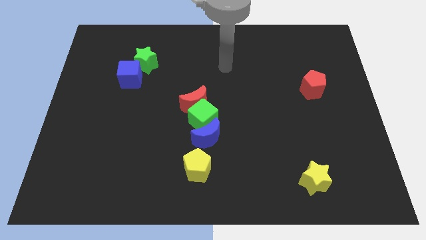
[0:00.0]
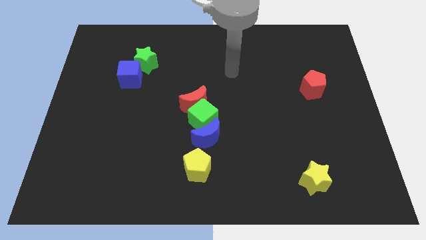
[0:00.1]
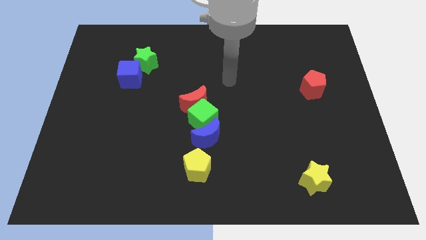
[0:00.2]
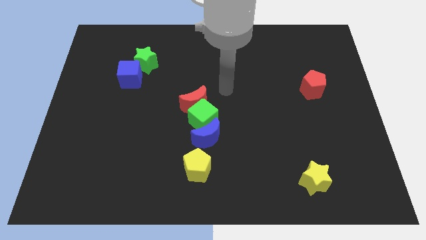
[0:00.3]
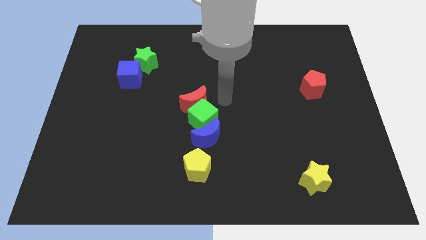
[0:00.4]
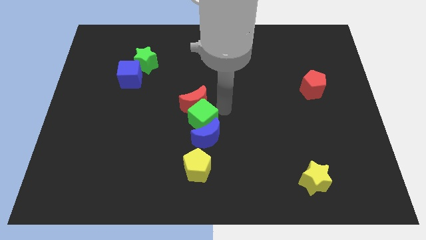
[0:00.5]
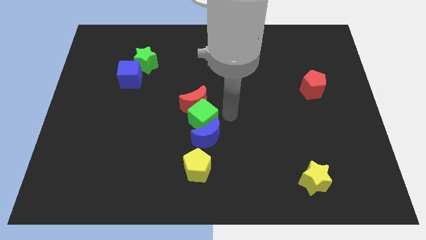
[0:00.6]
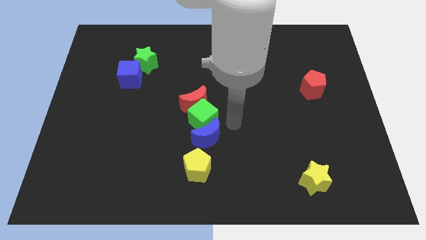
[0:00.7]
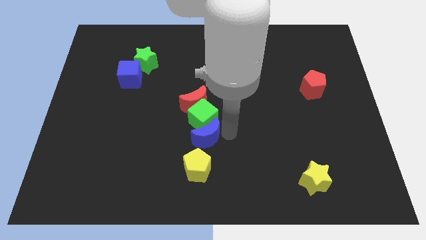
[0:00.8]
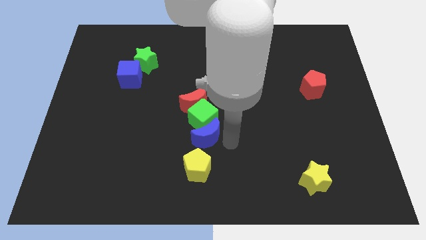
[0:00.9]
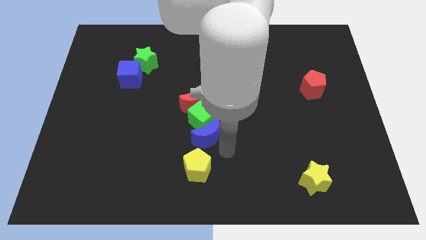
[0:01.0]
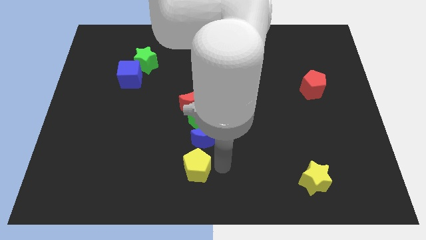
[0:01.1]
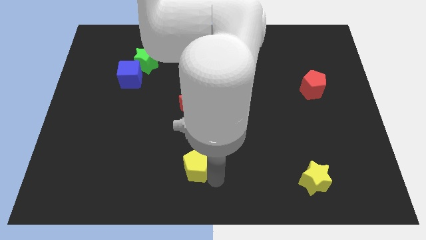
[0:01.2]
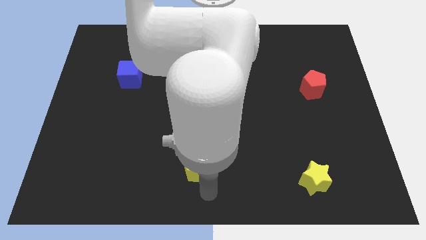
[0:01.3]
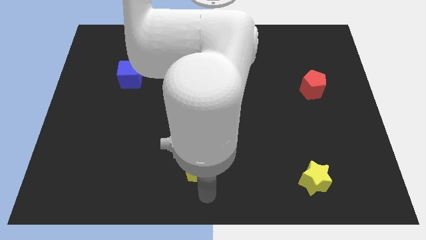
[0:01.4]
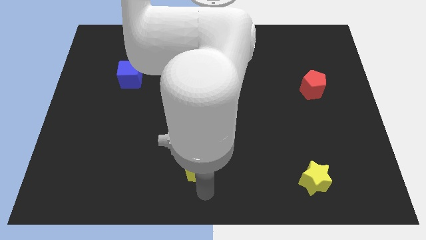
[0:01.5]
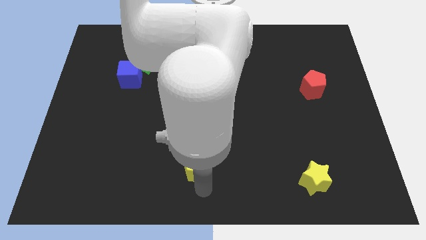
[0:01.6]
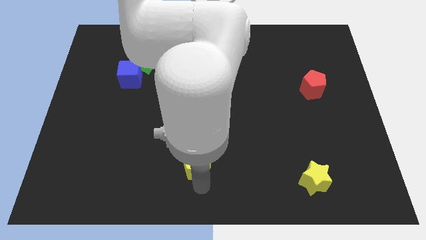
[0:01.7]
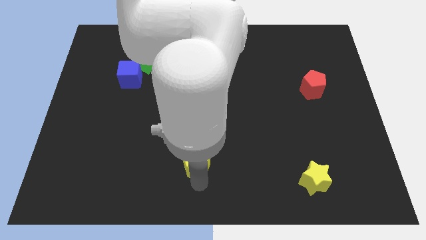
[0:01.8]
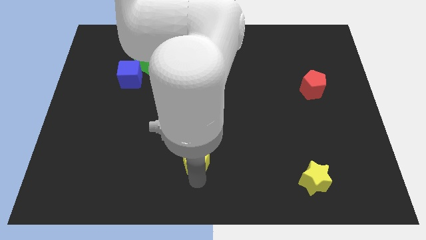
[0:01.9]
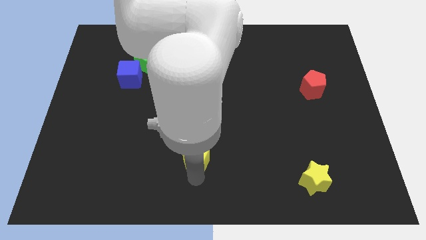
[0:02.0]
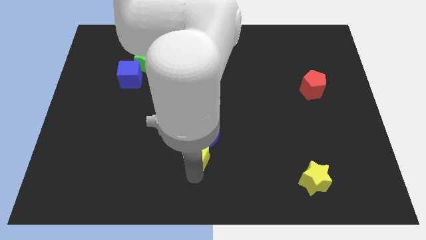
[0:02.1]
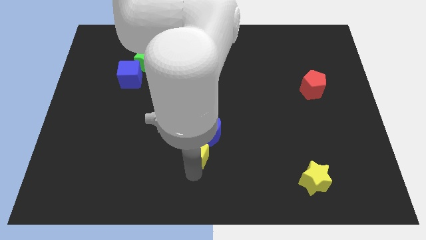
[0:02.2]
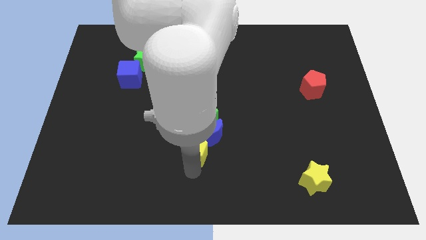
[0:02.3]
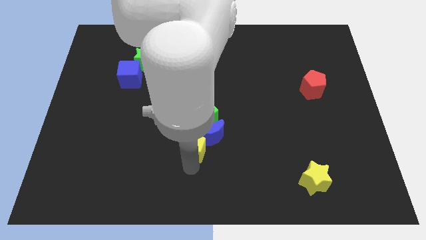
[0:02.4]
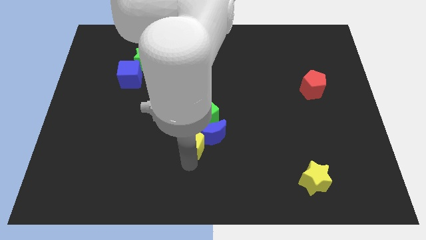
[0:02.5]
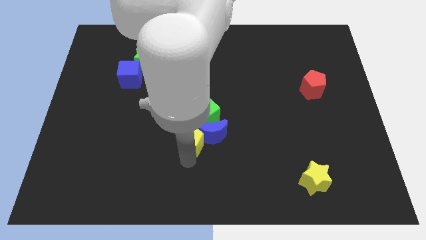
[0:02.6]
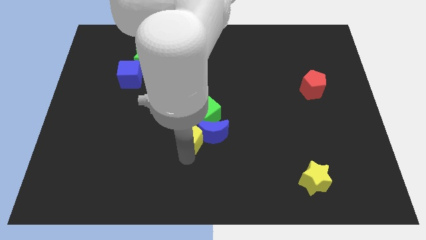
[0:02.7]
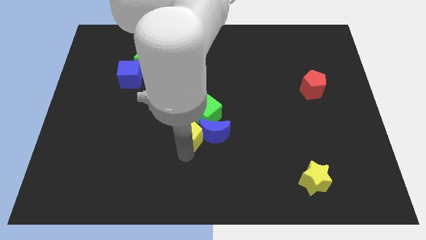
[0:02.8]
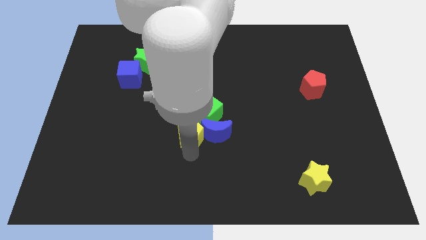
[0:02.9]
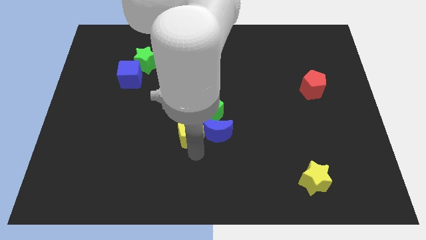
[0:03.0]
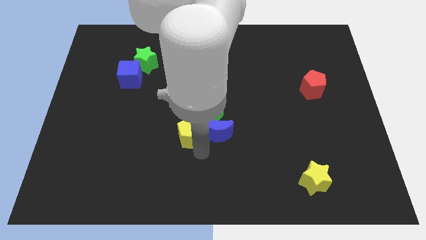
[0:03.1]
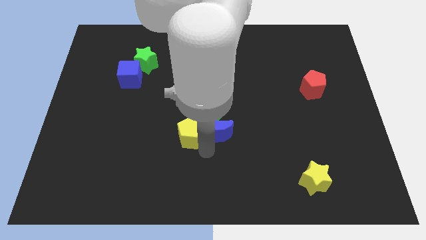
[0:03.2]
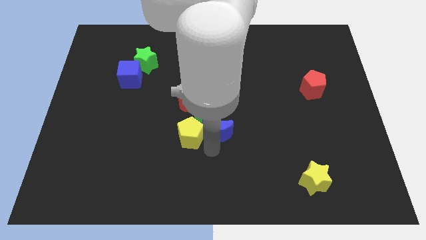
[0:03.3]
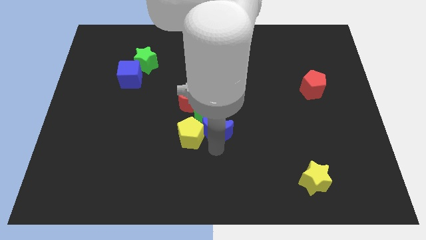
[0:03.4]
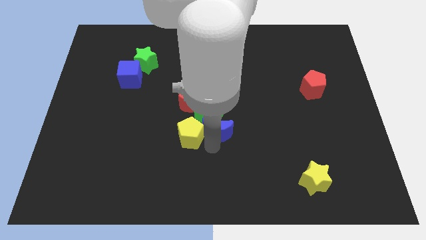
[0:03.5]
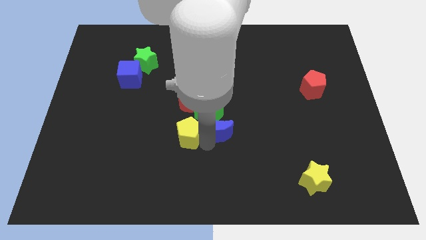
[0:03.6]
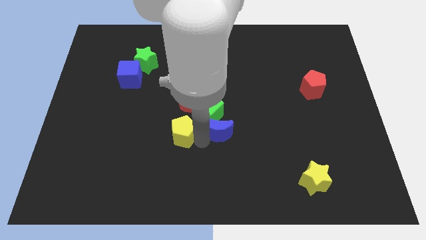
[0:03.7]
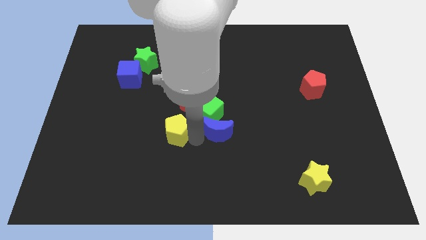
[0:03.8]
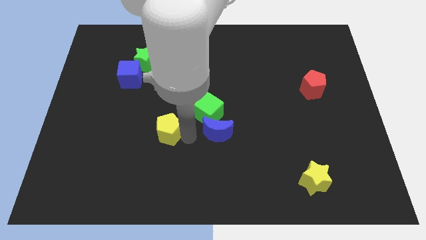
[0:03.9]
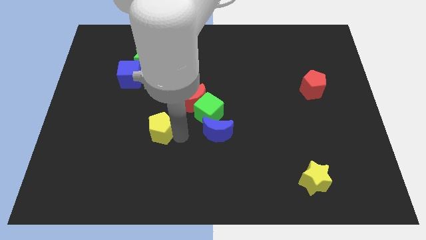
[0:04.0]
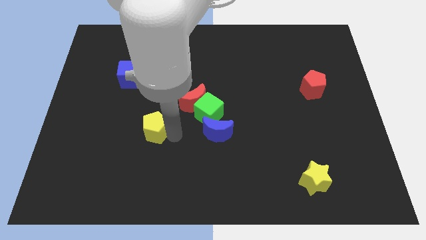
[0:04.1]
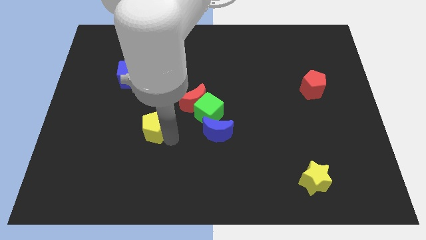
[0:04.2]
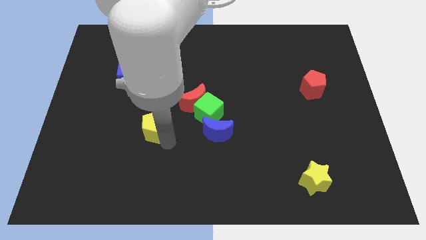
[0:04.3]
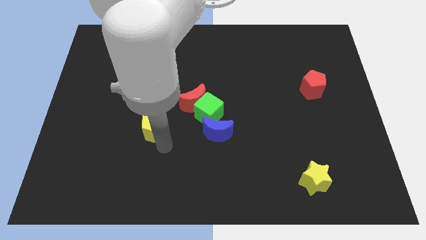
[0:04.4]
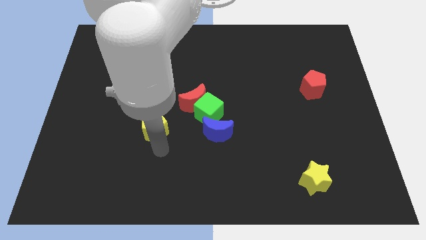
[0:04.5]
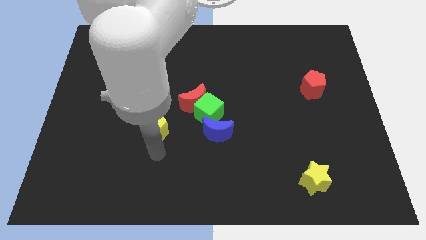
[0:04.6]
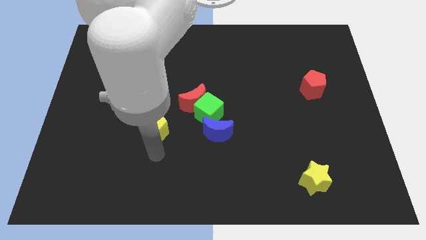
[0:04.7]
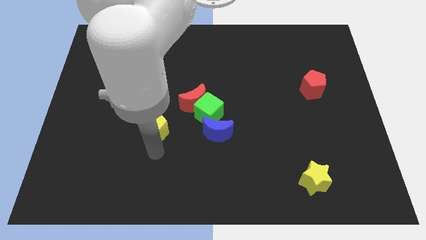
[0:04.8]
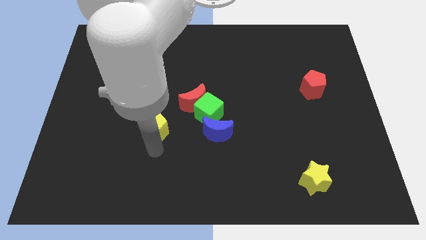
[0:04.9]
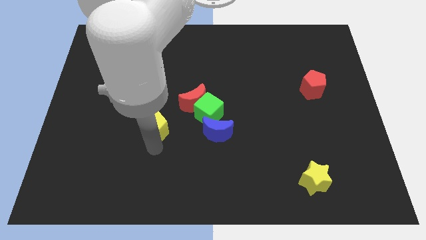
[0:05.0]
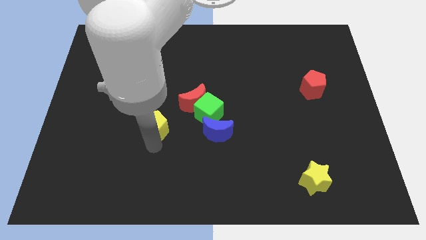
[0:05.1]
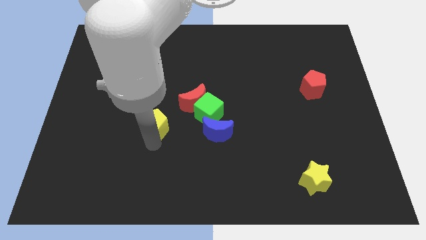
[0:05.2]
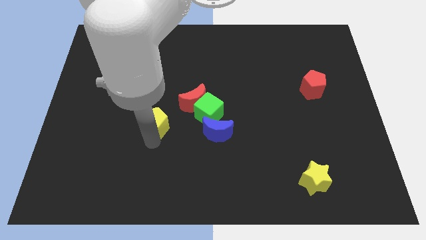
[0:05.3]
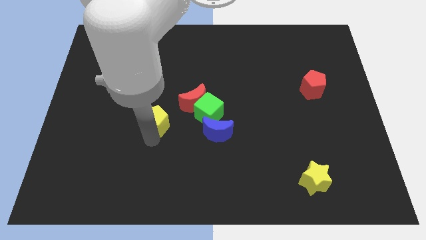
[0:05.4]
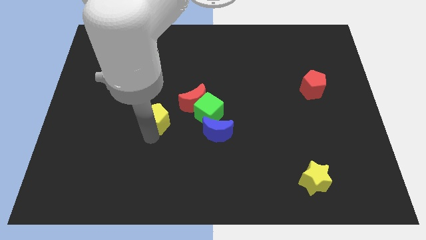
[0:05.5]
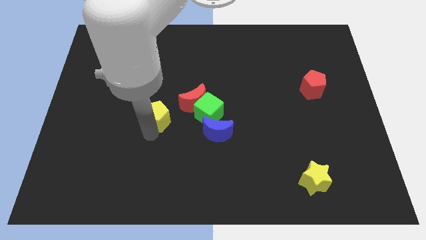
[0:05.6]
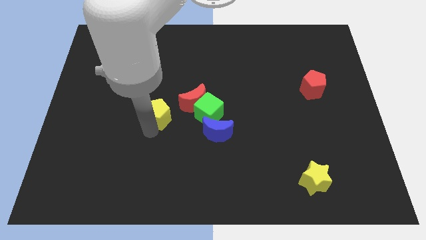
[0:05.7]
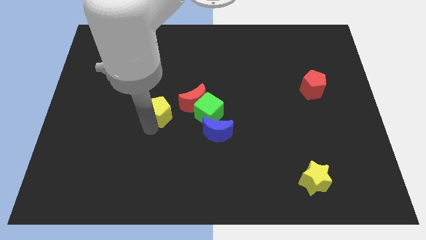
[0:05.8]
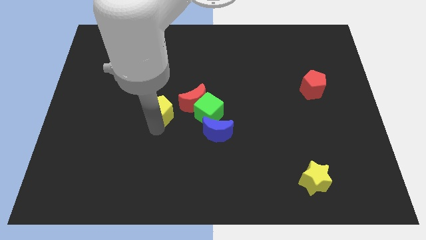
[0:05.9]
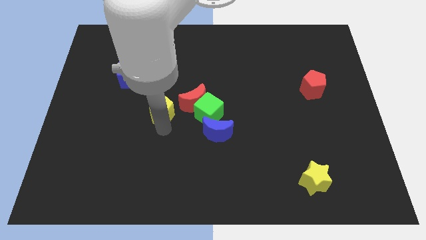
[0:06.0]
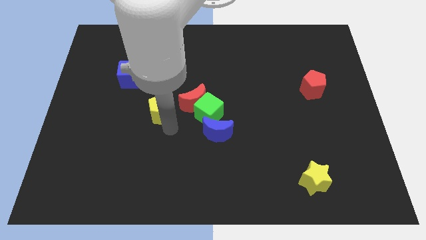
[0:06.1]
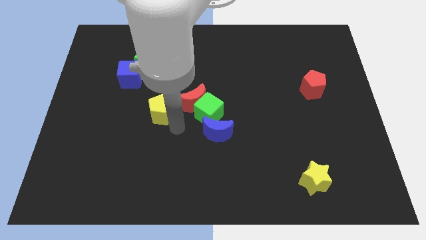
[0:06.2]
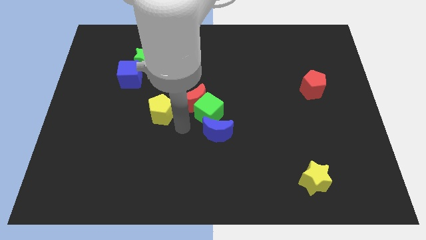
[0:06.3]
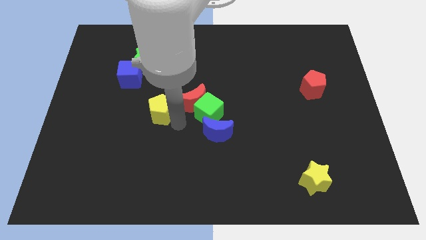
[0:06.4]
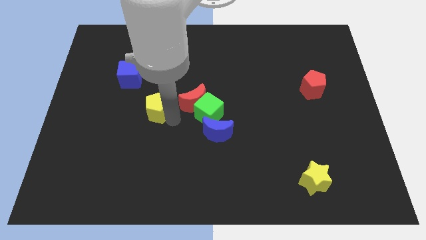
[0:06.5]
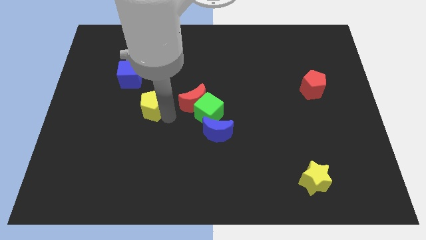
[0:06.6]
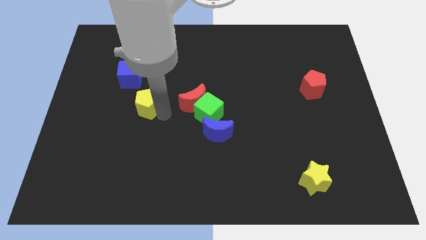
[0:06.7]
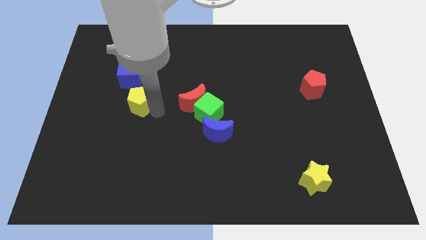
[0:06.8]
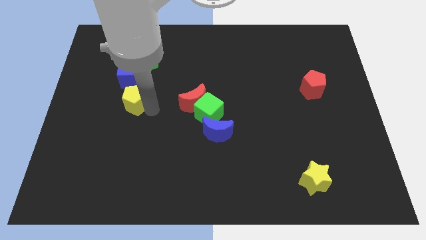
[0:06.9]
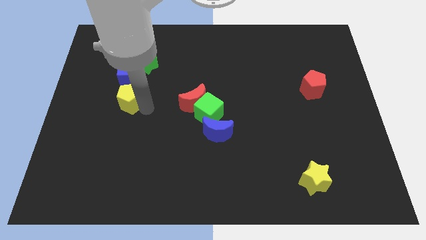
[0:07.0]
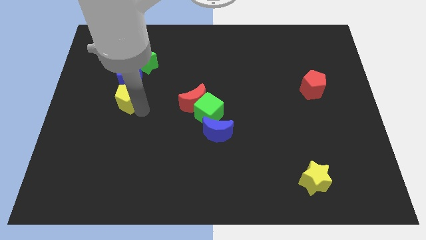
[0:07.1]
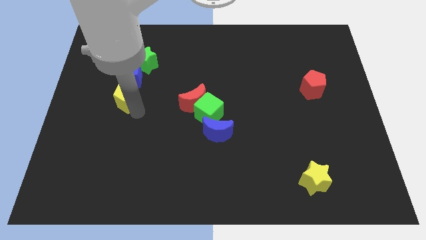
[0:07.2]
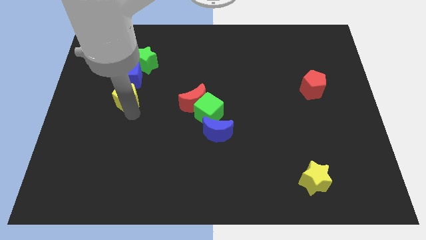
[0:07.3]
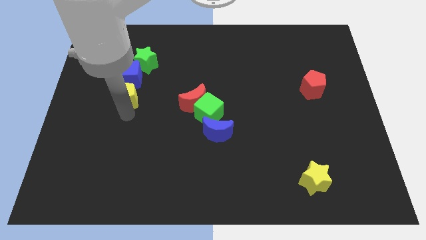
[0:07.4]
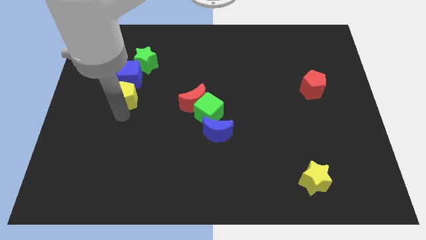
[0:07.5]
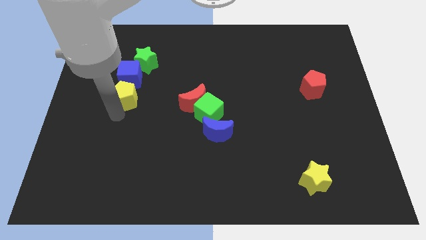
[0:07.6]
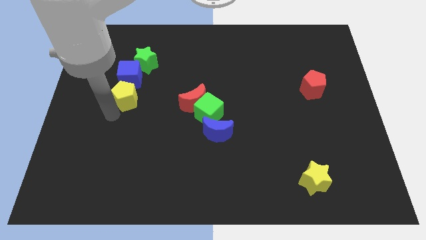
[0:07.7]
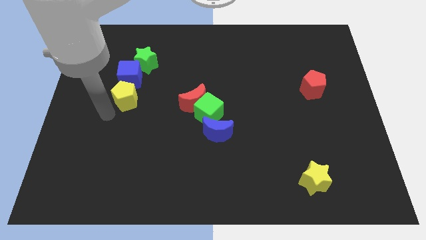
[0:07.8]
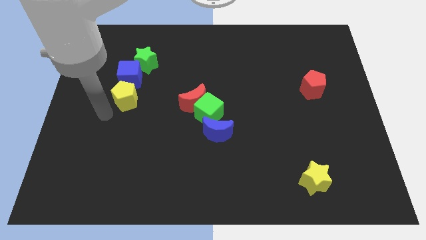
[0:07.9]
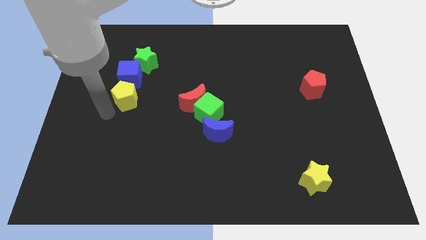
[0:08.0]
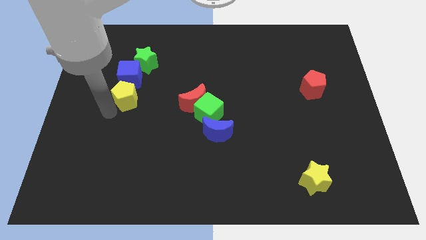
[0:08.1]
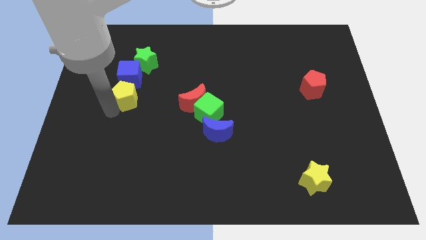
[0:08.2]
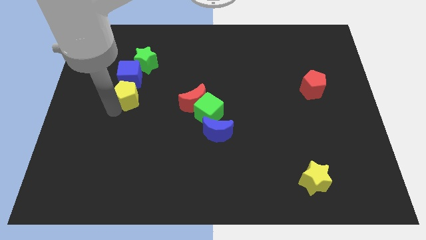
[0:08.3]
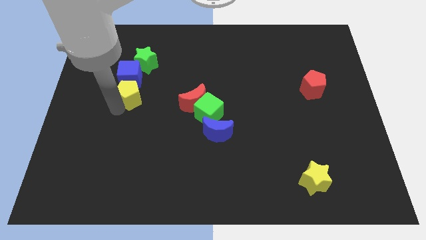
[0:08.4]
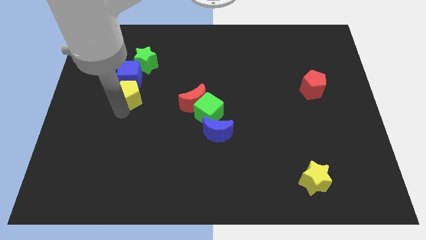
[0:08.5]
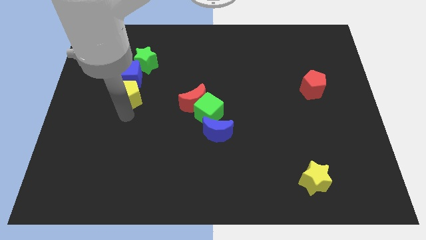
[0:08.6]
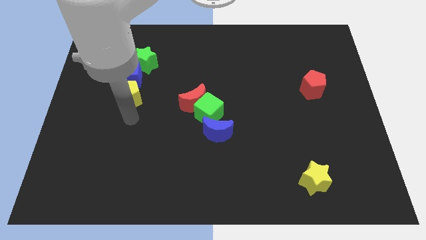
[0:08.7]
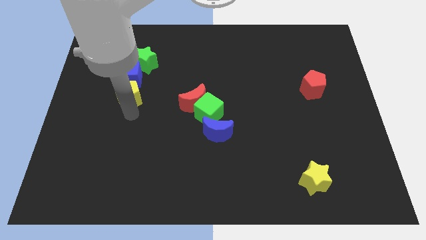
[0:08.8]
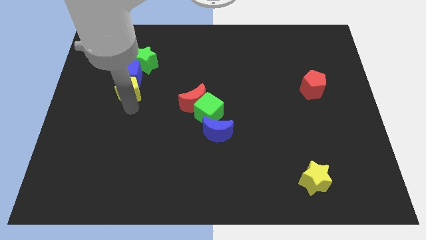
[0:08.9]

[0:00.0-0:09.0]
move the yellow pentagon to the blue cube
